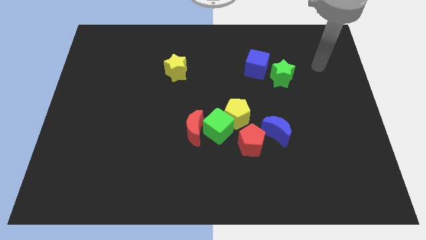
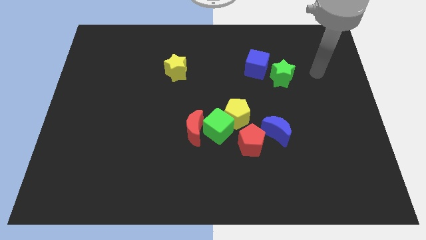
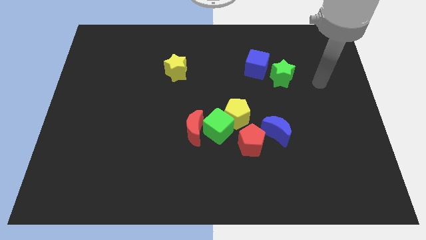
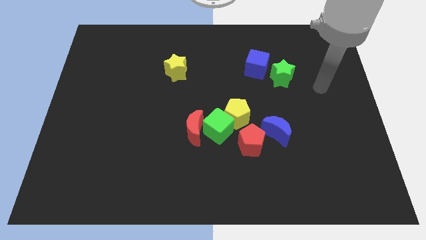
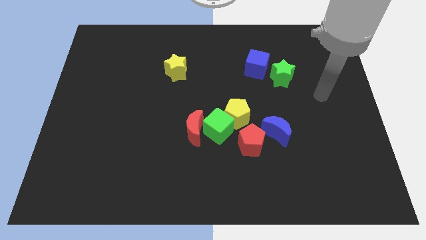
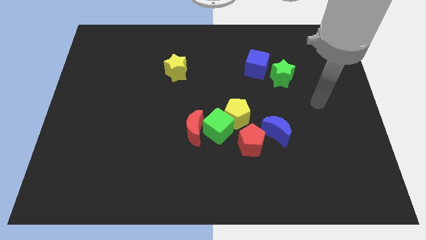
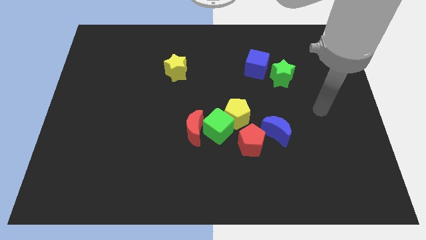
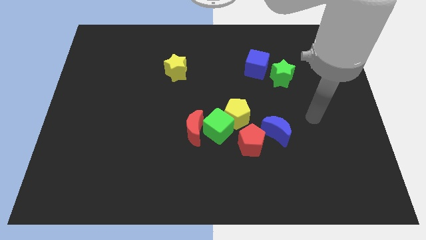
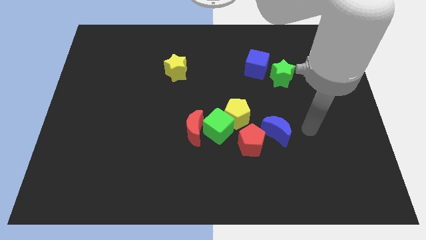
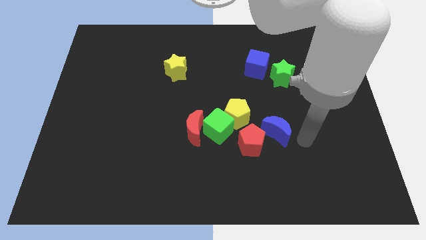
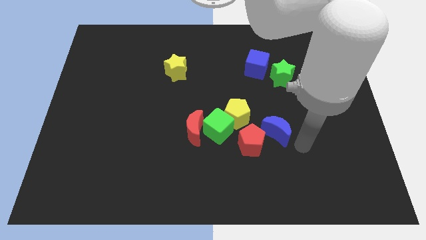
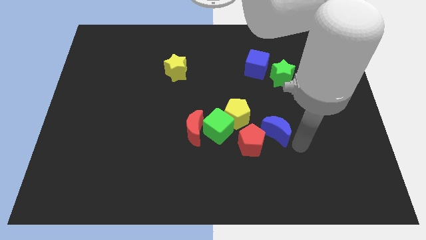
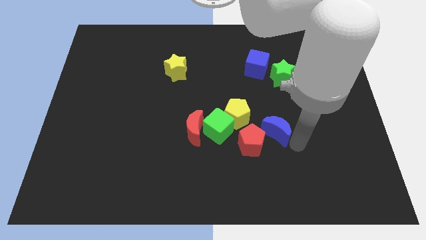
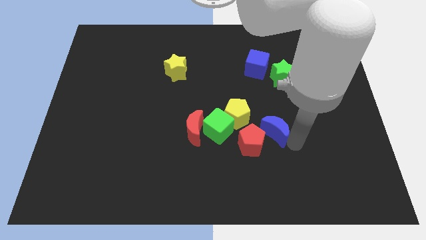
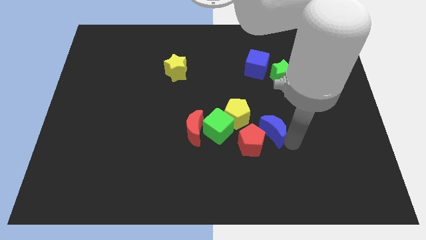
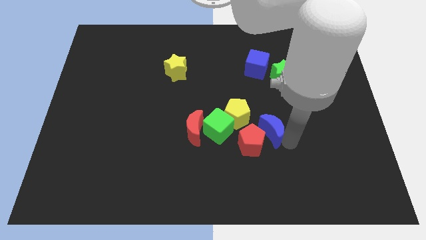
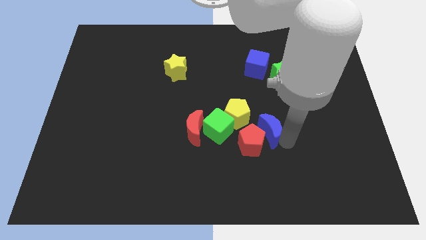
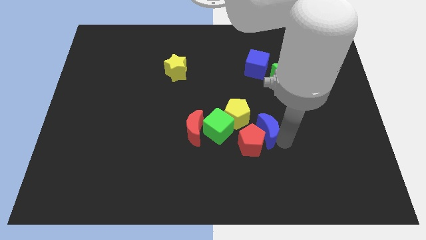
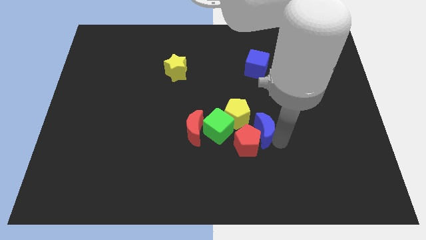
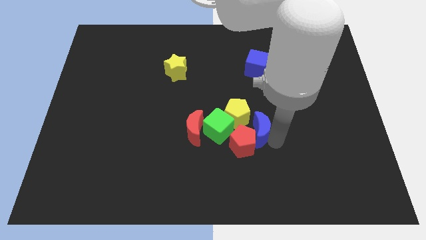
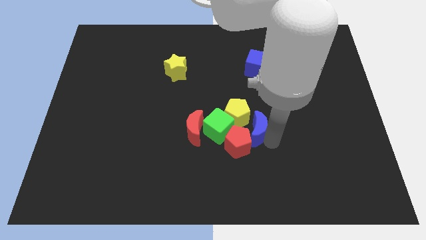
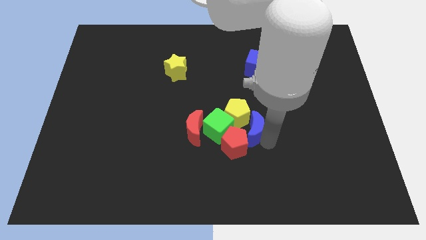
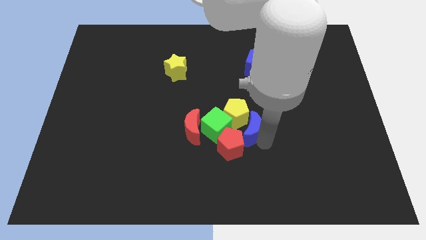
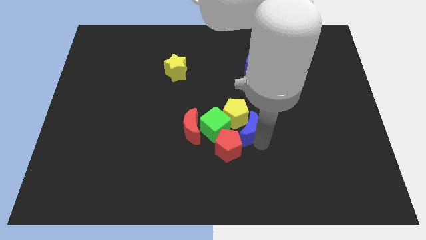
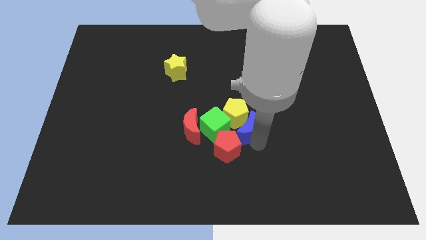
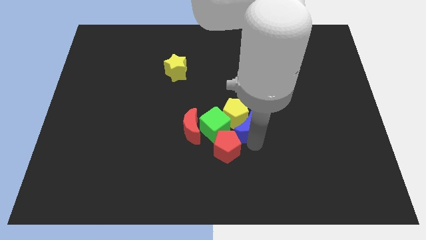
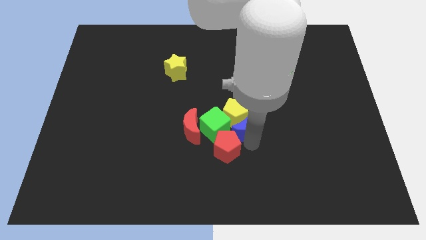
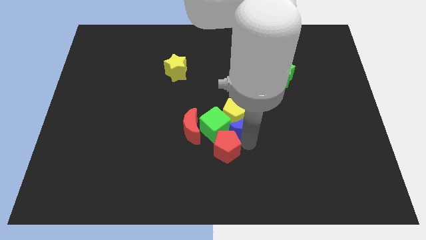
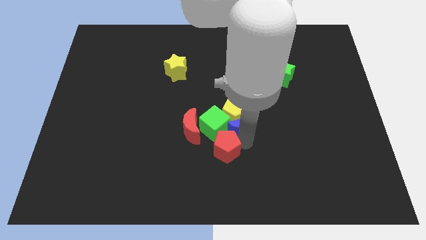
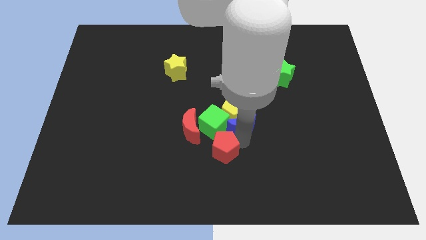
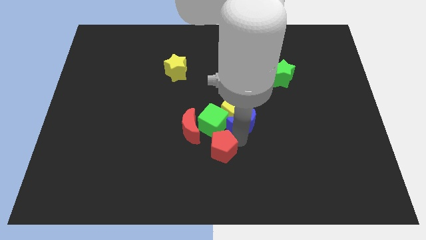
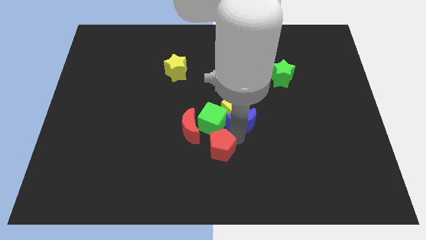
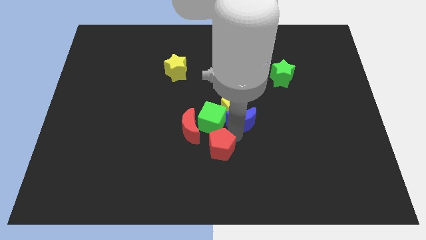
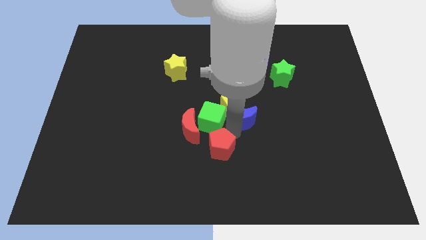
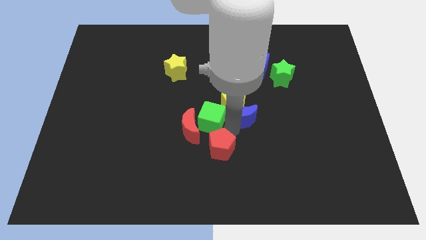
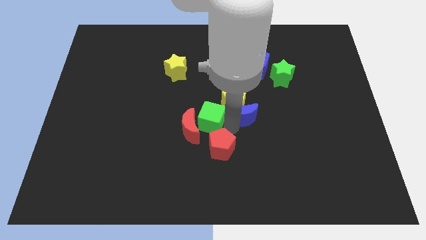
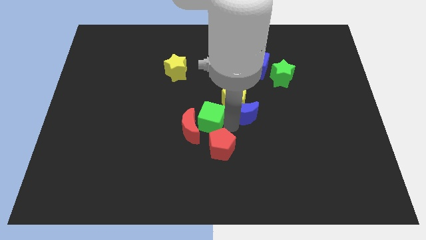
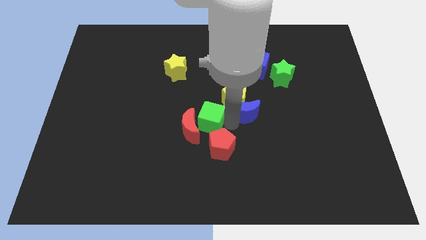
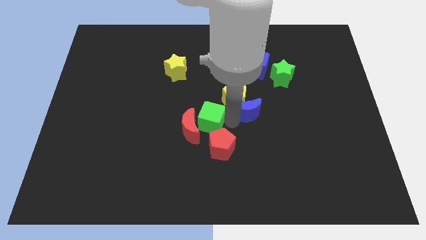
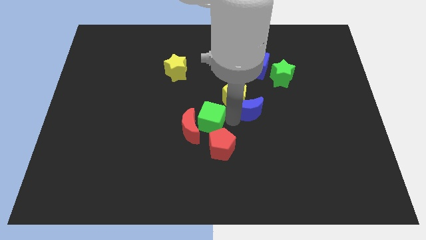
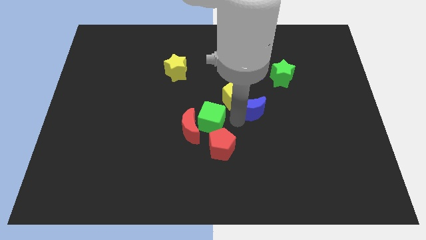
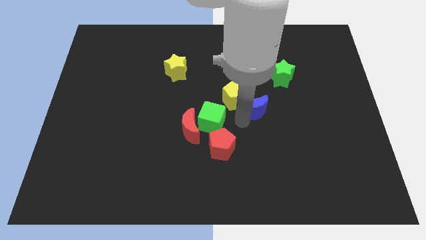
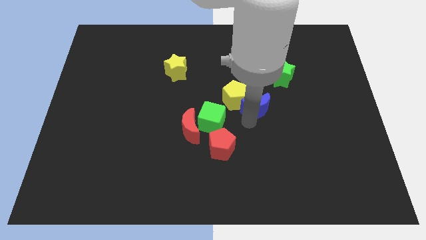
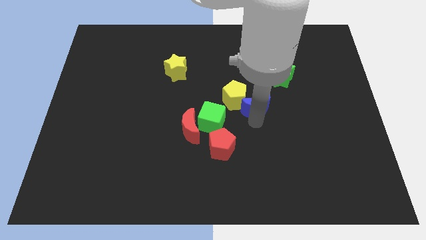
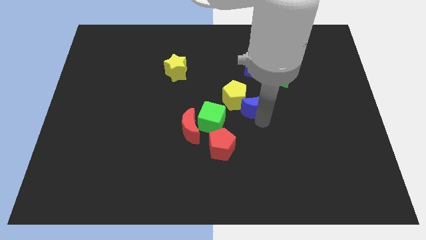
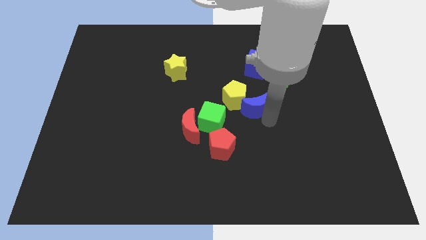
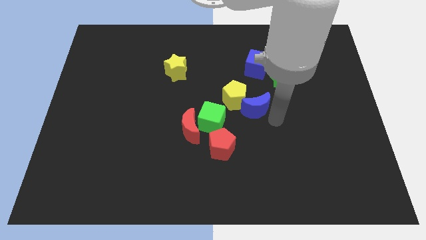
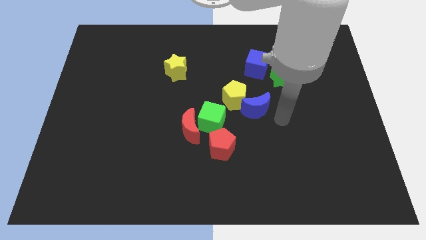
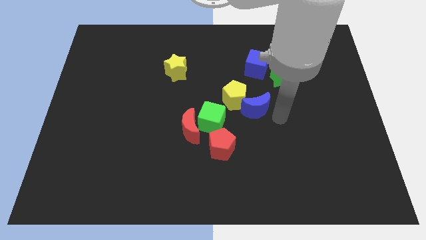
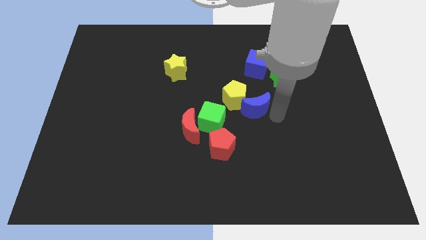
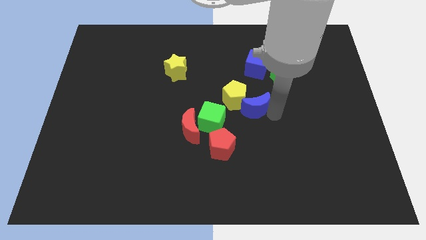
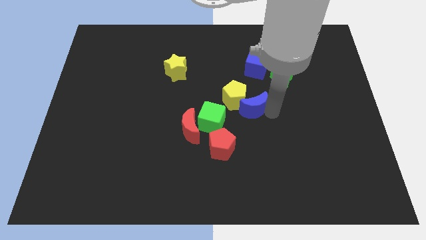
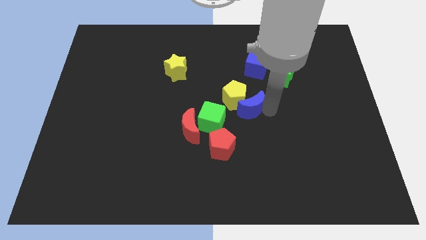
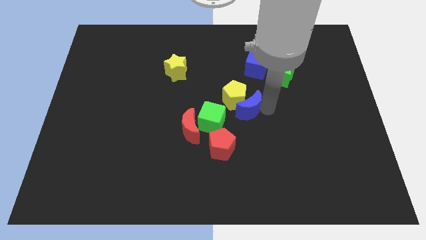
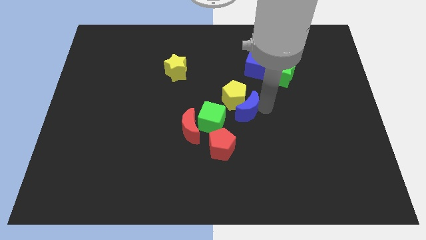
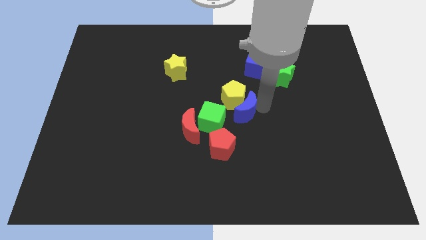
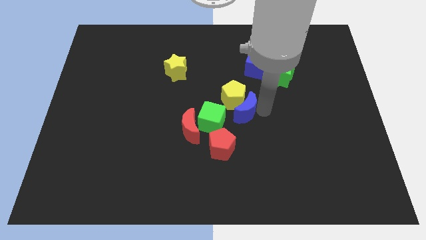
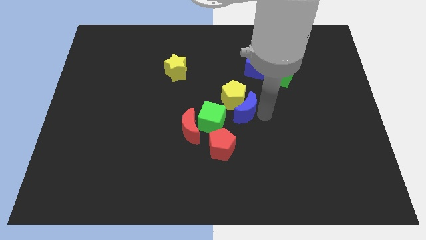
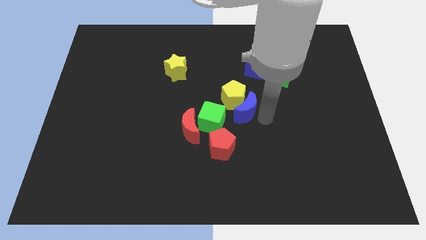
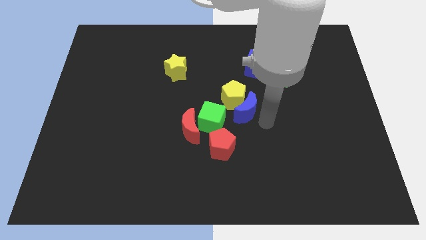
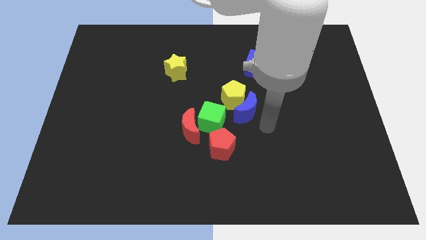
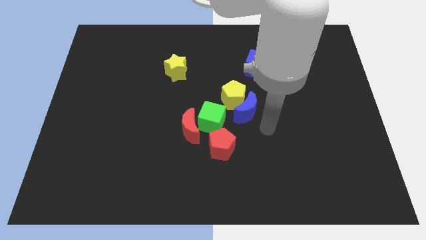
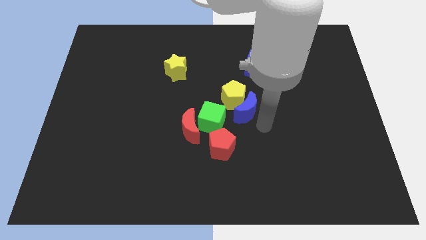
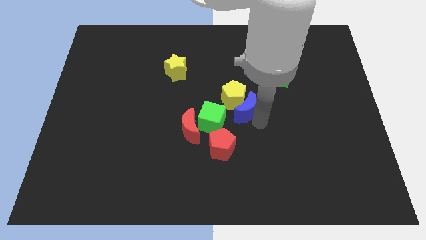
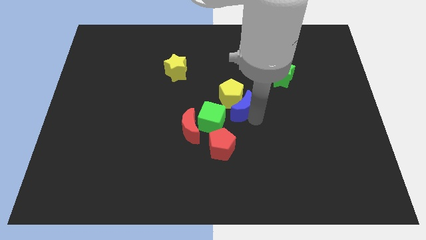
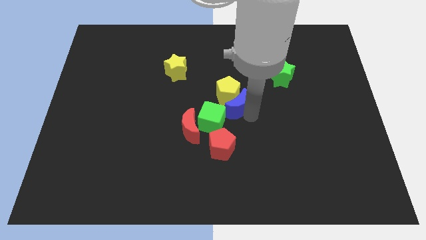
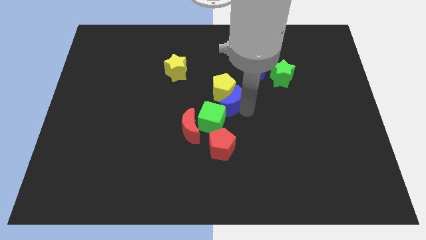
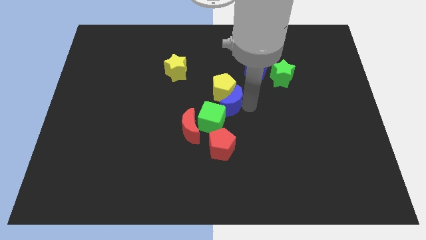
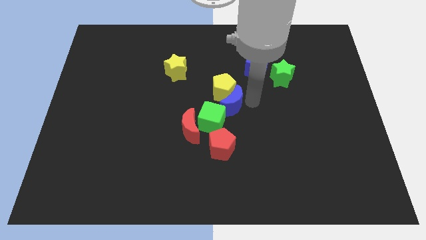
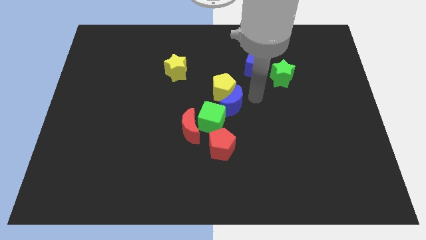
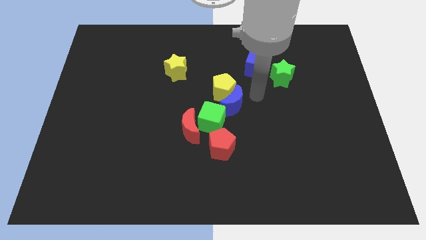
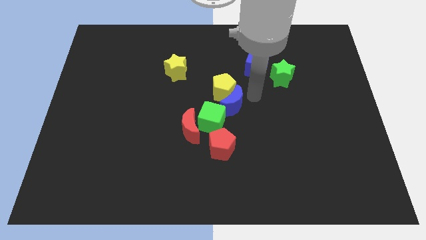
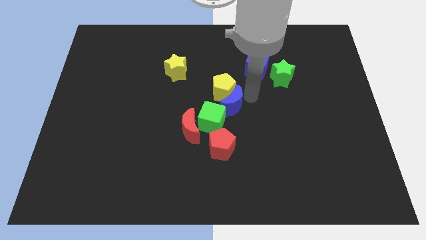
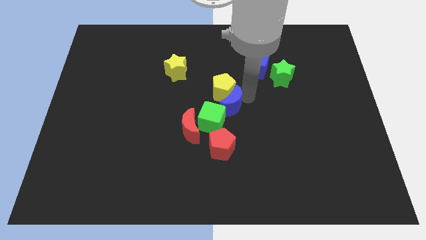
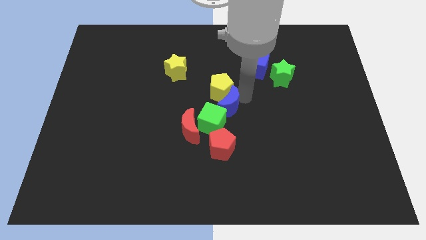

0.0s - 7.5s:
slide the blue moon to the green cube
